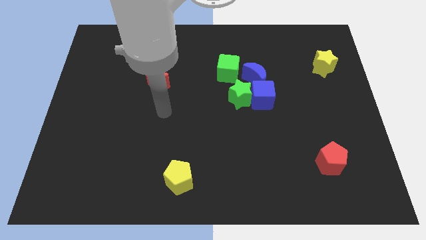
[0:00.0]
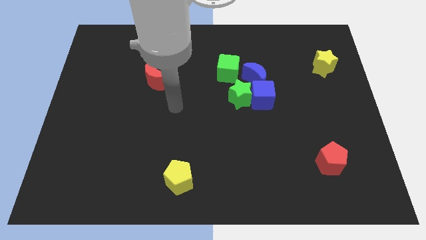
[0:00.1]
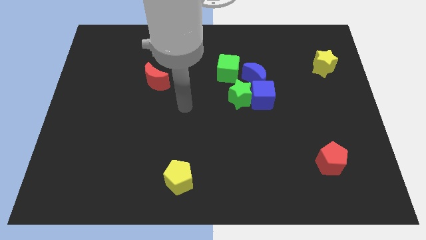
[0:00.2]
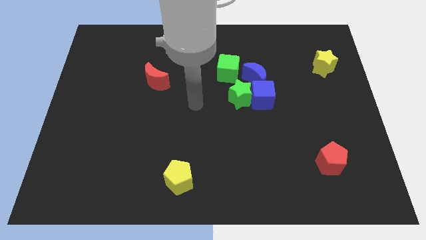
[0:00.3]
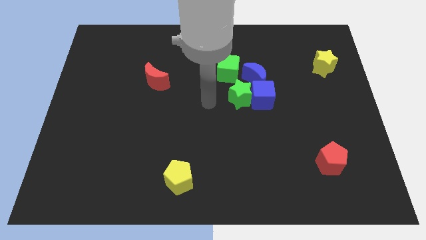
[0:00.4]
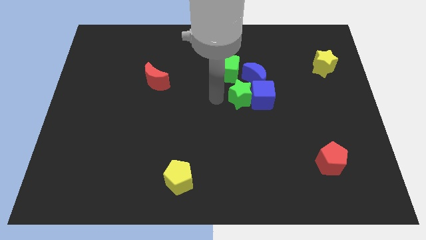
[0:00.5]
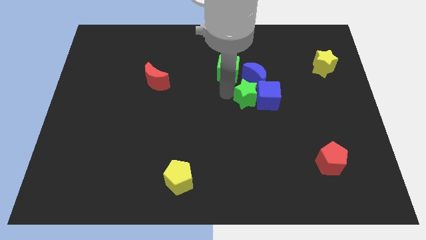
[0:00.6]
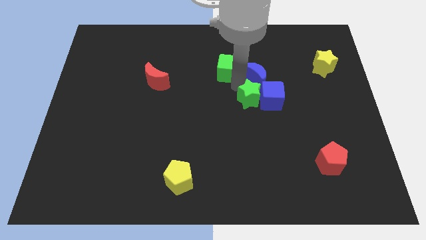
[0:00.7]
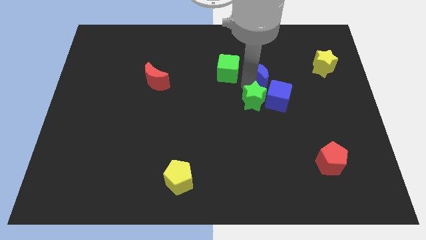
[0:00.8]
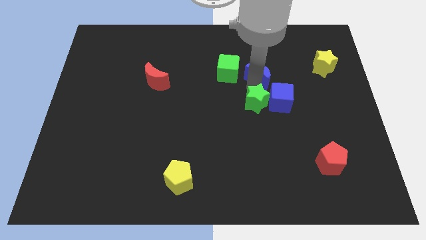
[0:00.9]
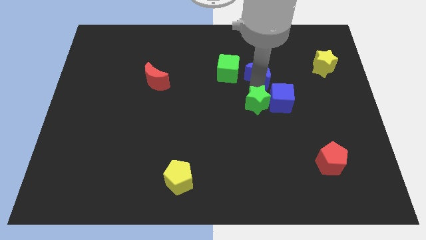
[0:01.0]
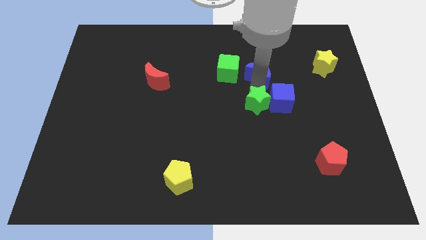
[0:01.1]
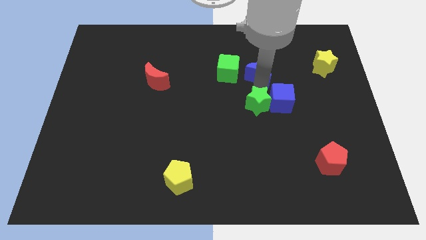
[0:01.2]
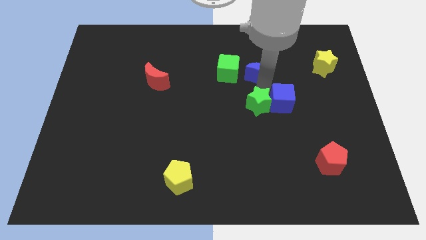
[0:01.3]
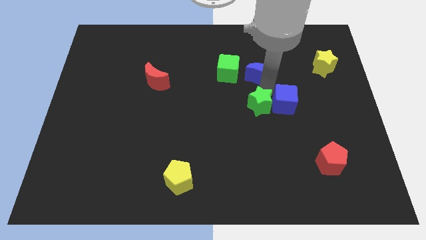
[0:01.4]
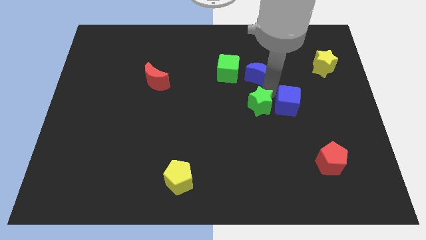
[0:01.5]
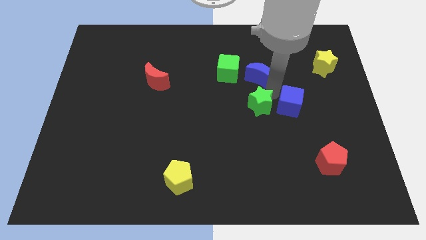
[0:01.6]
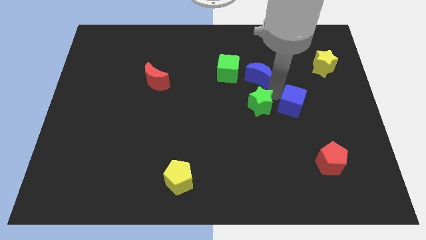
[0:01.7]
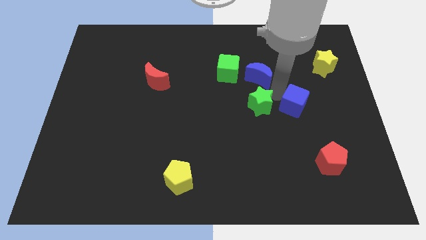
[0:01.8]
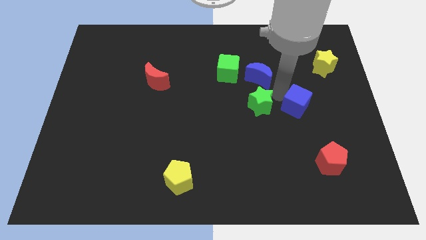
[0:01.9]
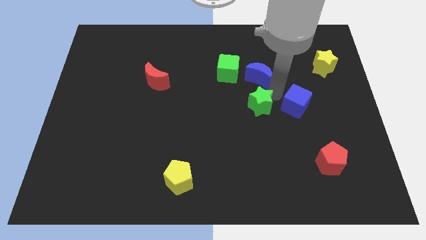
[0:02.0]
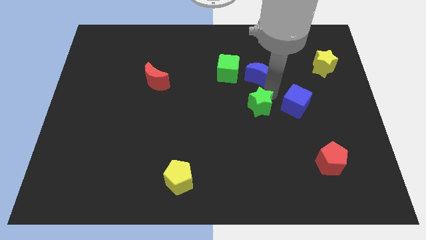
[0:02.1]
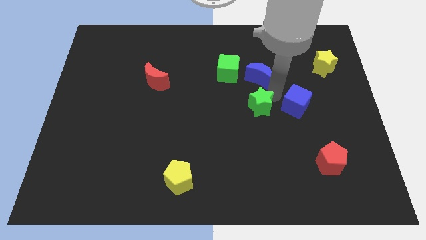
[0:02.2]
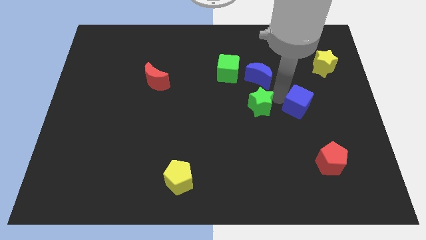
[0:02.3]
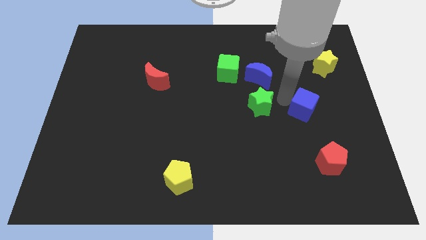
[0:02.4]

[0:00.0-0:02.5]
separate the blue cube from the green star and blue moon

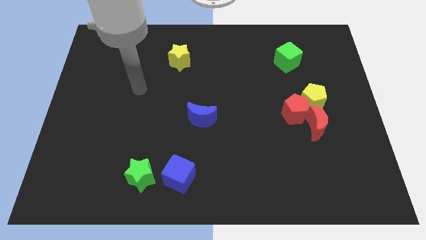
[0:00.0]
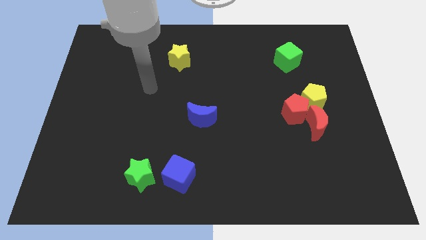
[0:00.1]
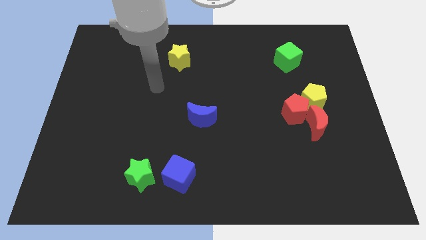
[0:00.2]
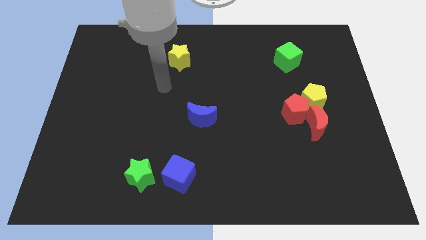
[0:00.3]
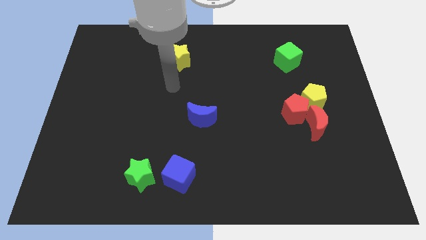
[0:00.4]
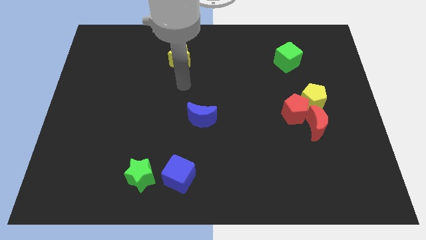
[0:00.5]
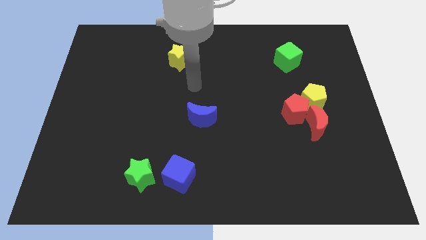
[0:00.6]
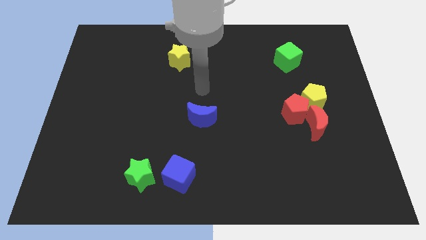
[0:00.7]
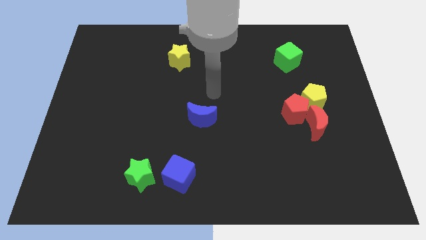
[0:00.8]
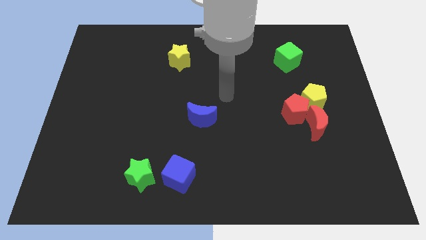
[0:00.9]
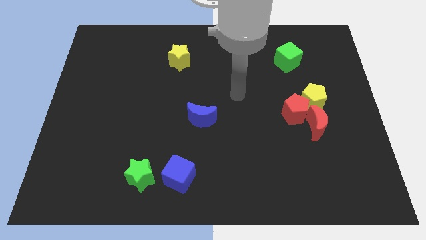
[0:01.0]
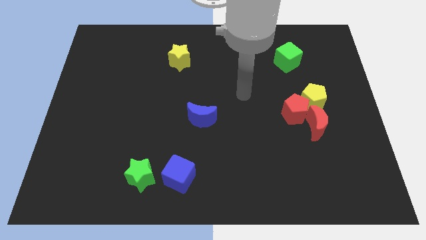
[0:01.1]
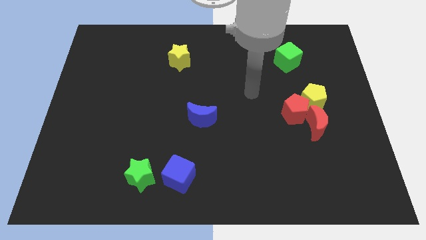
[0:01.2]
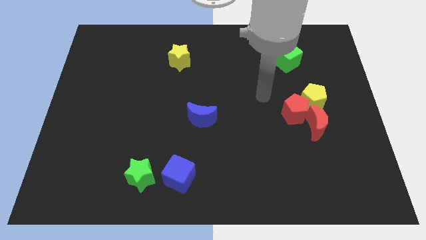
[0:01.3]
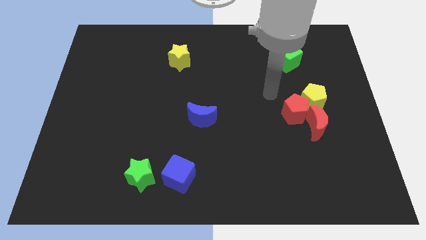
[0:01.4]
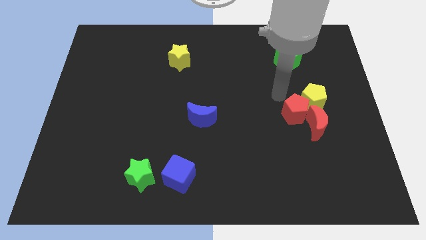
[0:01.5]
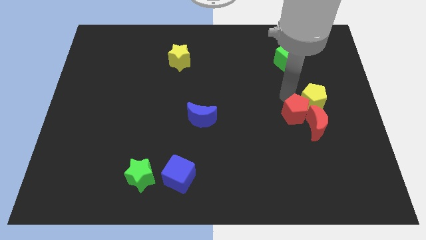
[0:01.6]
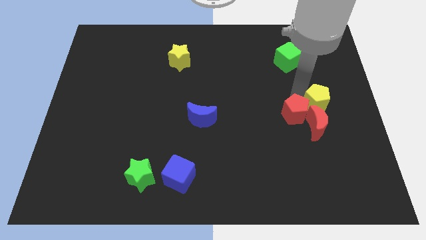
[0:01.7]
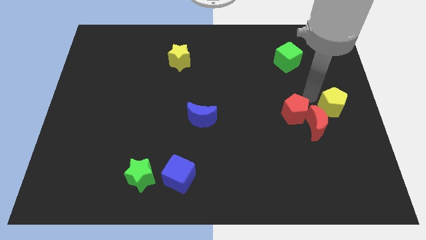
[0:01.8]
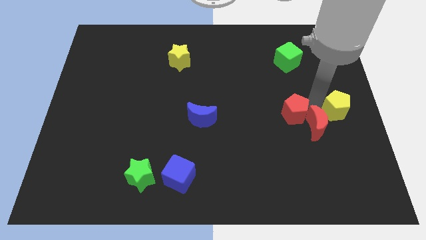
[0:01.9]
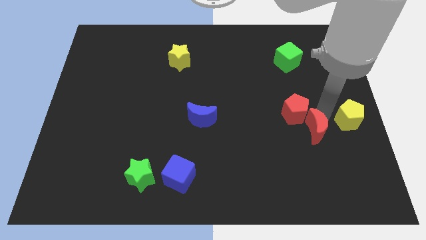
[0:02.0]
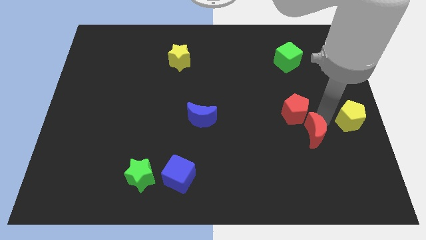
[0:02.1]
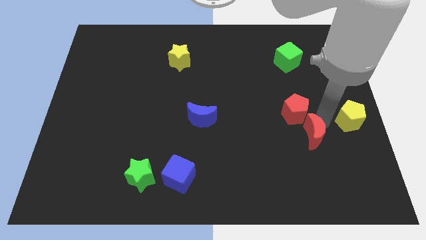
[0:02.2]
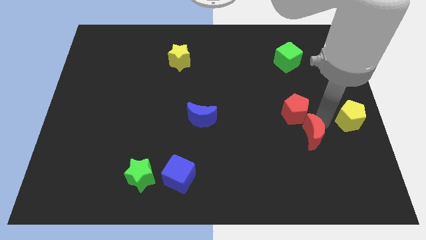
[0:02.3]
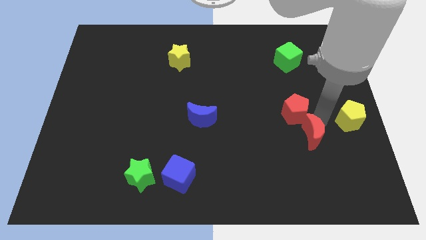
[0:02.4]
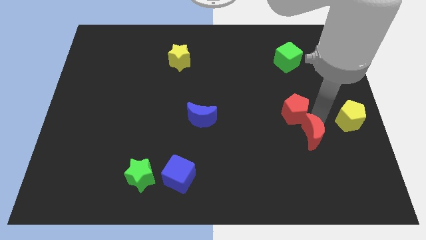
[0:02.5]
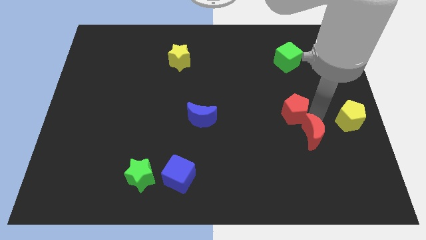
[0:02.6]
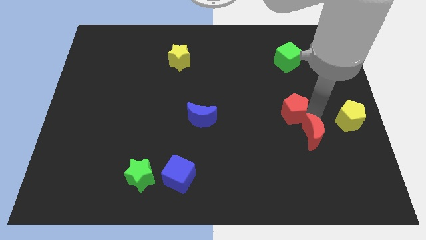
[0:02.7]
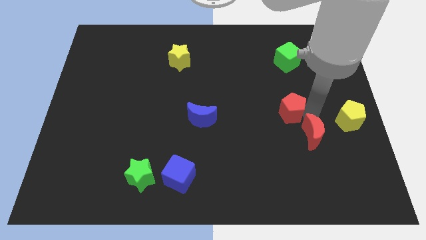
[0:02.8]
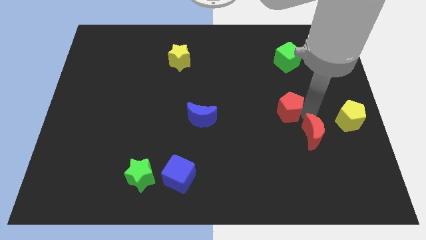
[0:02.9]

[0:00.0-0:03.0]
move the red pentagon away from the yellow pentagon and red moon

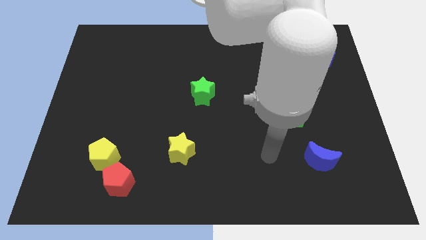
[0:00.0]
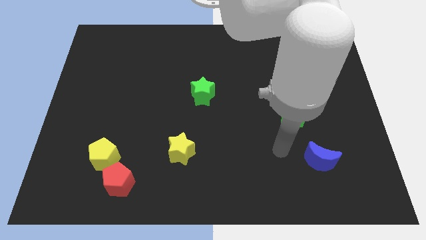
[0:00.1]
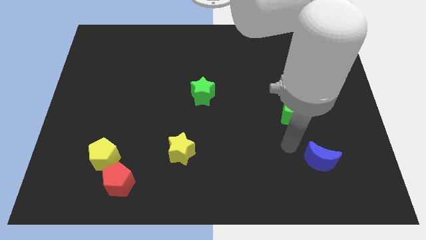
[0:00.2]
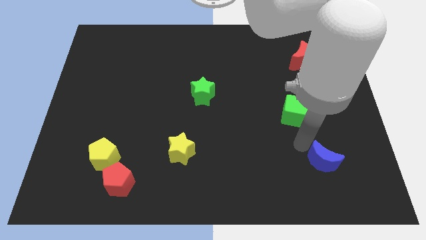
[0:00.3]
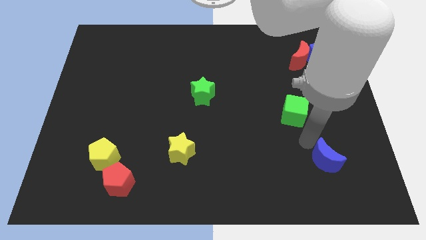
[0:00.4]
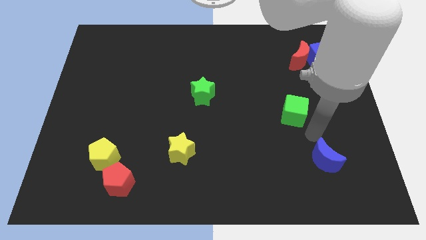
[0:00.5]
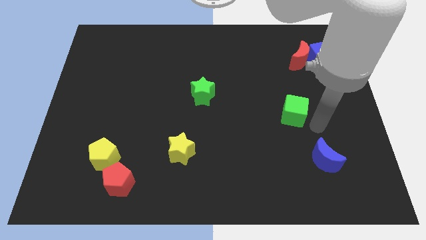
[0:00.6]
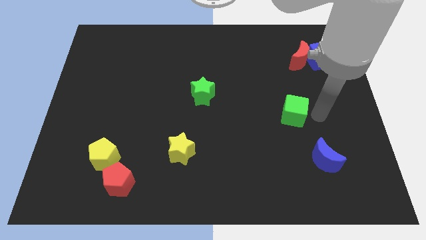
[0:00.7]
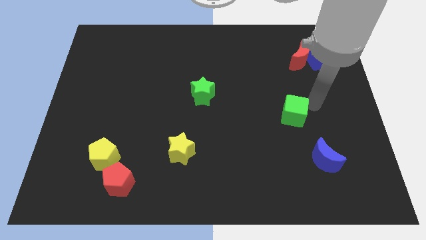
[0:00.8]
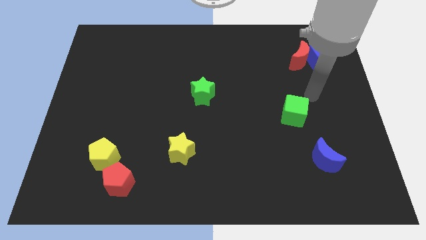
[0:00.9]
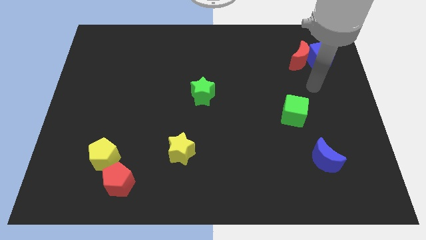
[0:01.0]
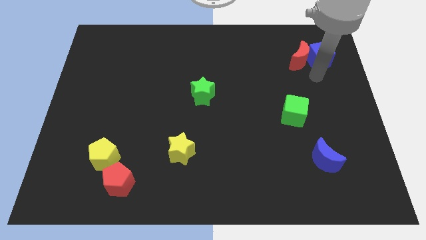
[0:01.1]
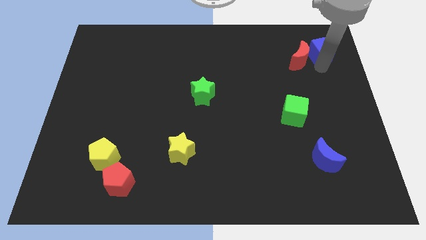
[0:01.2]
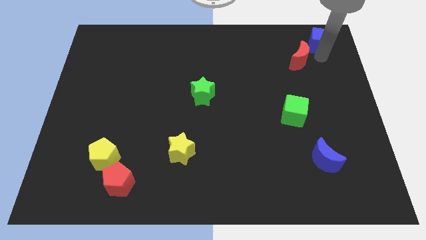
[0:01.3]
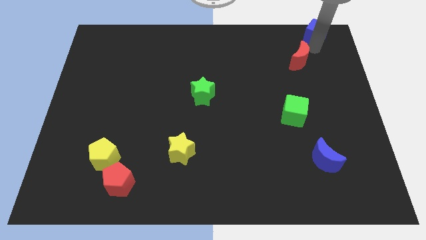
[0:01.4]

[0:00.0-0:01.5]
move the red moon away from the blue cube

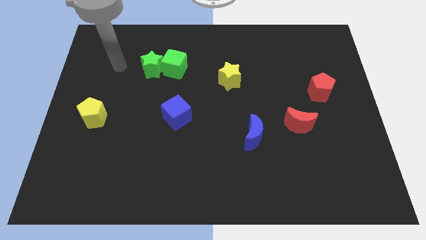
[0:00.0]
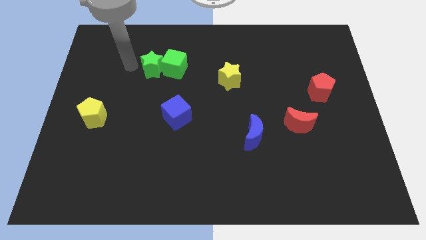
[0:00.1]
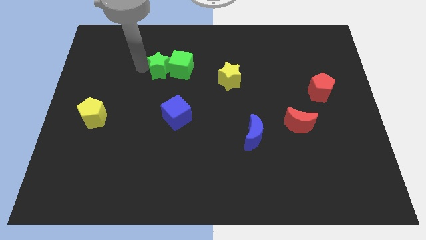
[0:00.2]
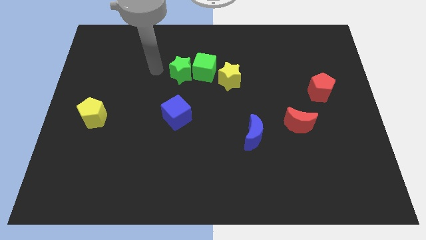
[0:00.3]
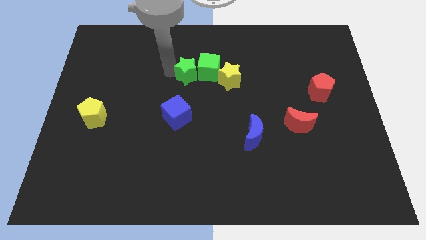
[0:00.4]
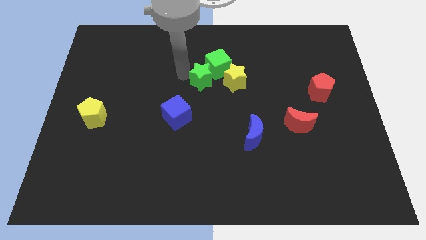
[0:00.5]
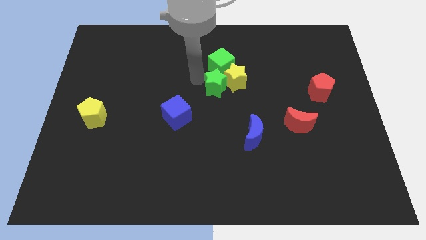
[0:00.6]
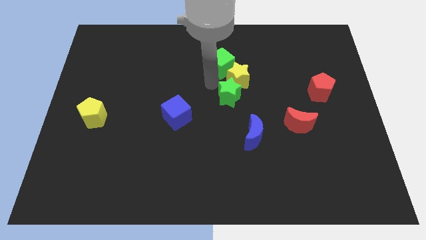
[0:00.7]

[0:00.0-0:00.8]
pull the green cube apart from the green star

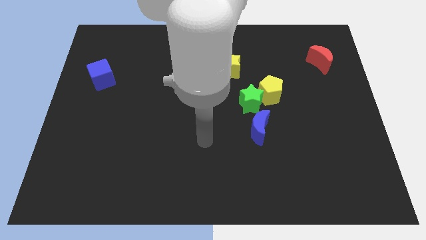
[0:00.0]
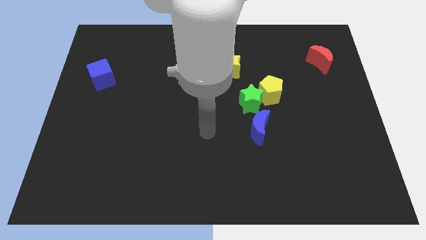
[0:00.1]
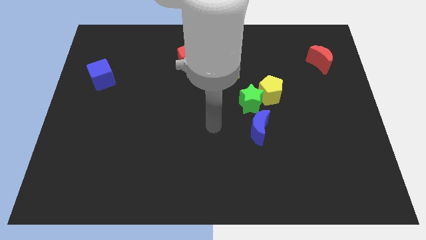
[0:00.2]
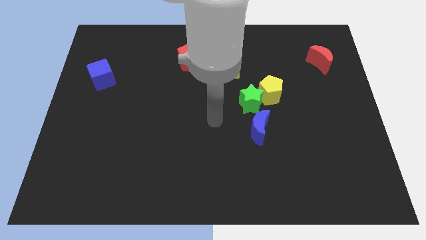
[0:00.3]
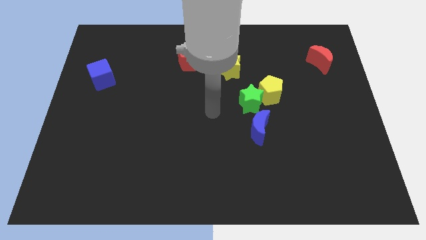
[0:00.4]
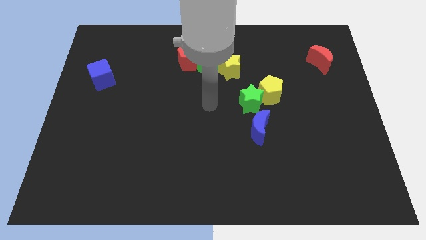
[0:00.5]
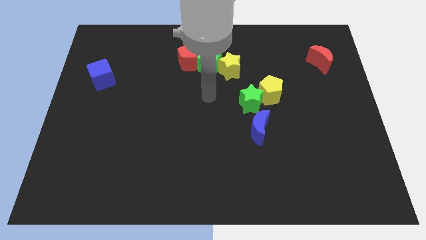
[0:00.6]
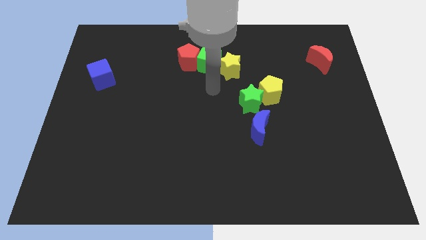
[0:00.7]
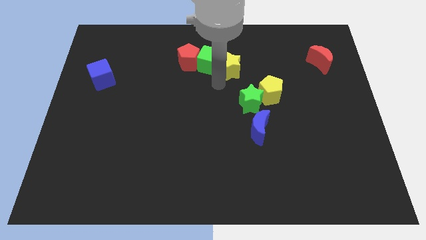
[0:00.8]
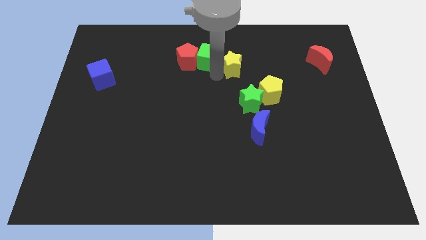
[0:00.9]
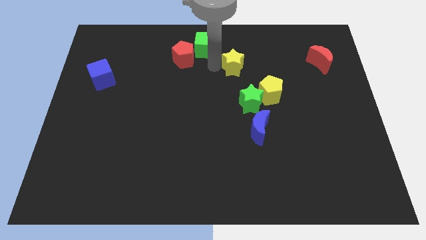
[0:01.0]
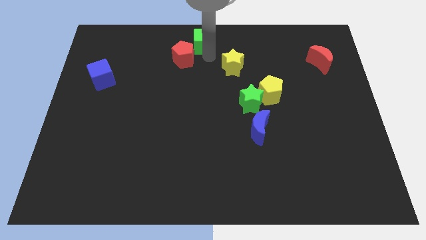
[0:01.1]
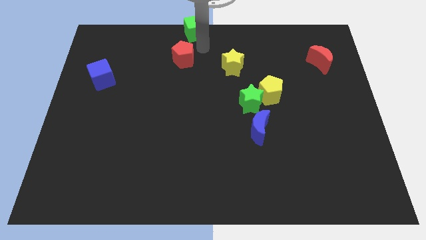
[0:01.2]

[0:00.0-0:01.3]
move the red pentagon away from the green cube

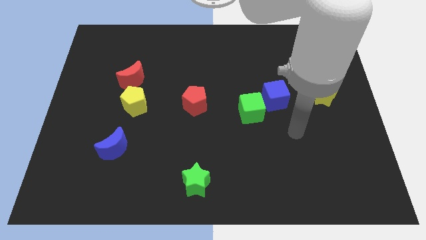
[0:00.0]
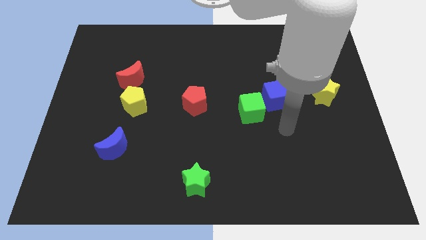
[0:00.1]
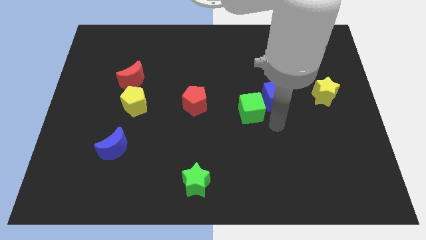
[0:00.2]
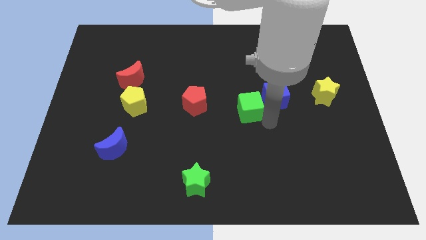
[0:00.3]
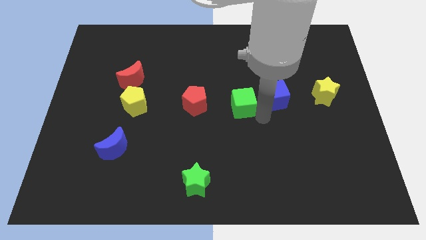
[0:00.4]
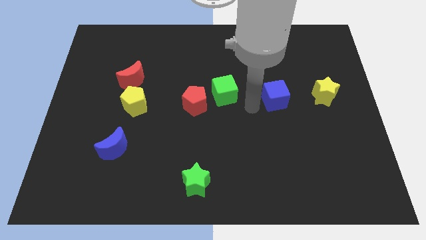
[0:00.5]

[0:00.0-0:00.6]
move the blue cube away from the green cube
